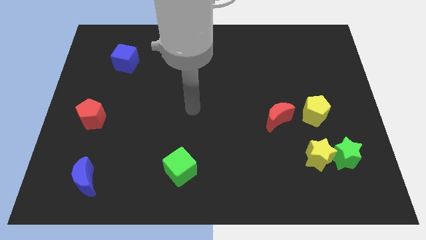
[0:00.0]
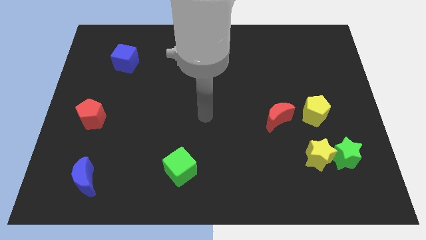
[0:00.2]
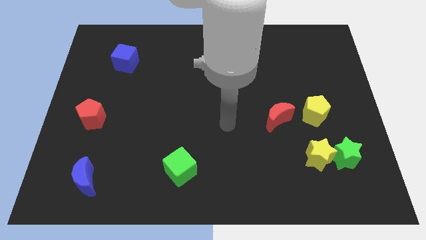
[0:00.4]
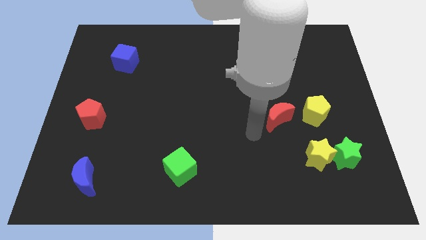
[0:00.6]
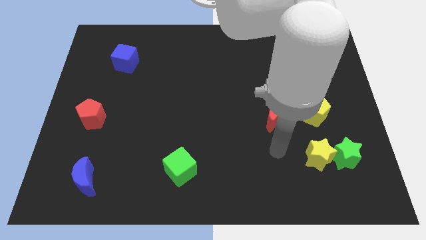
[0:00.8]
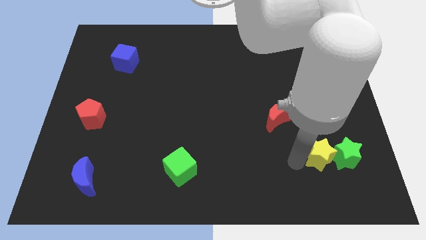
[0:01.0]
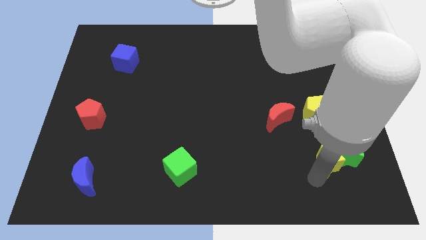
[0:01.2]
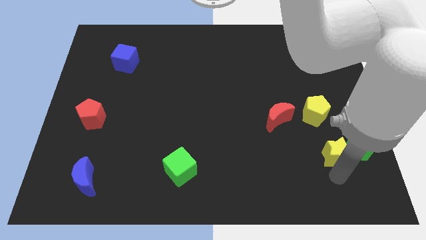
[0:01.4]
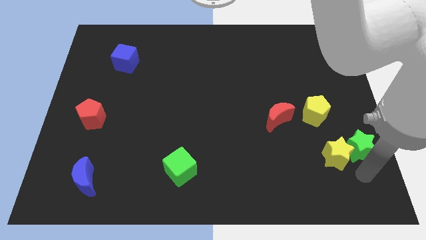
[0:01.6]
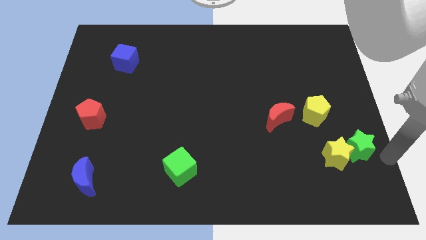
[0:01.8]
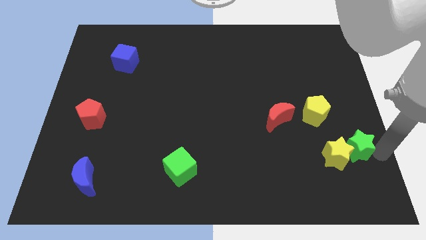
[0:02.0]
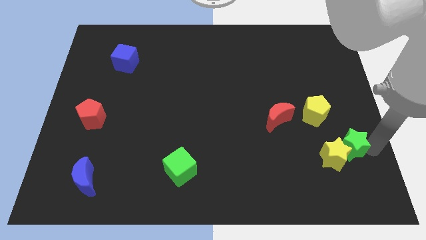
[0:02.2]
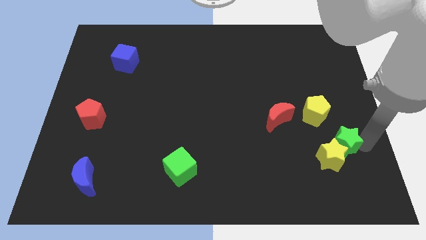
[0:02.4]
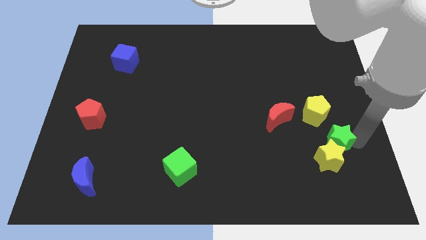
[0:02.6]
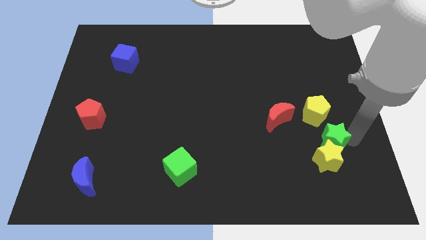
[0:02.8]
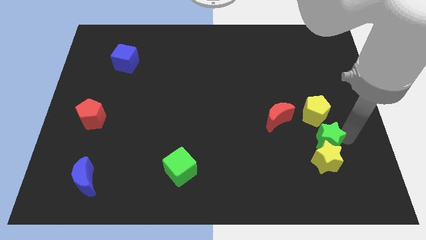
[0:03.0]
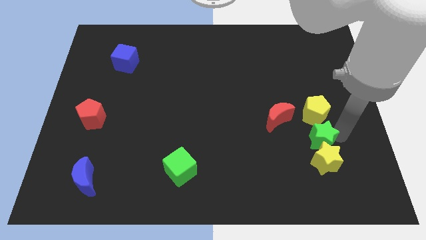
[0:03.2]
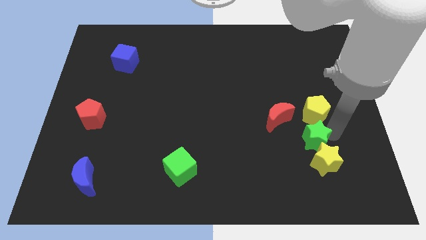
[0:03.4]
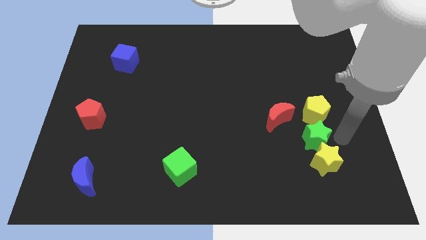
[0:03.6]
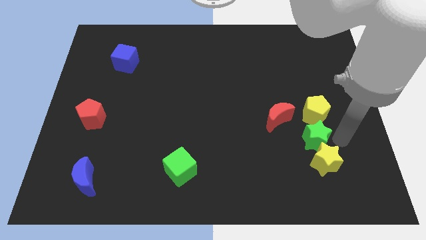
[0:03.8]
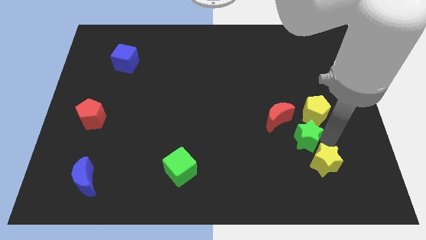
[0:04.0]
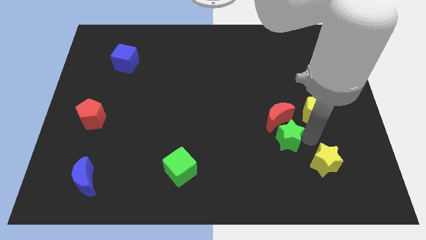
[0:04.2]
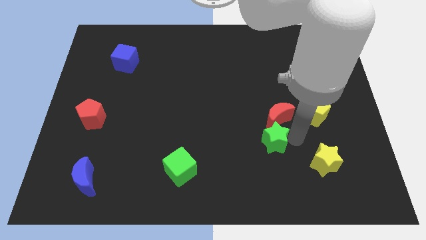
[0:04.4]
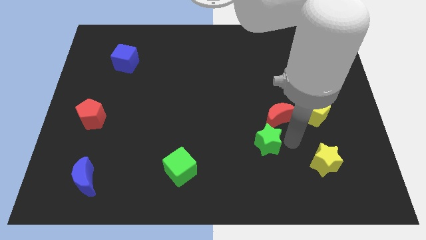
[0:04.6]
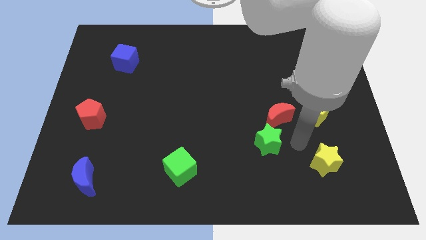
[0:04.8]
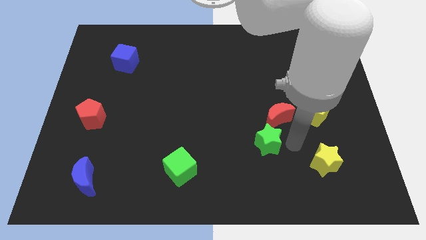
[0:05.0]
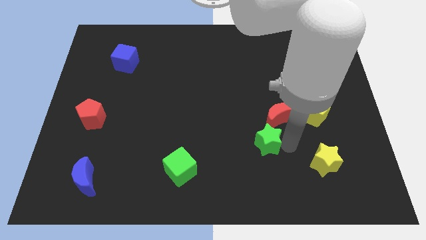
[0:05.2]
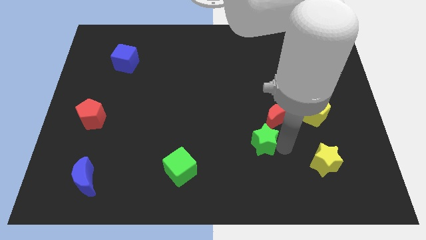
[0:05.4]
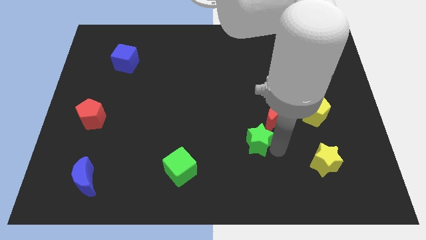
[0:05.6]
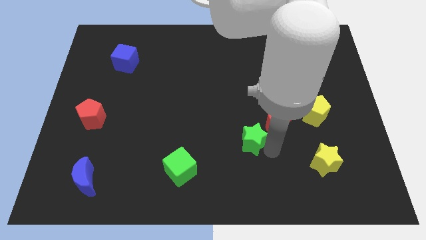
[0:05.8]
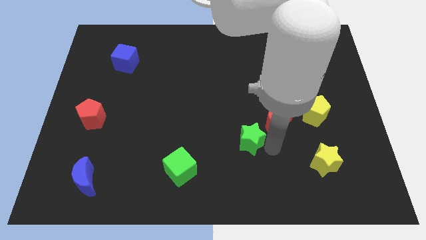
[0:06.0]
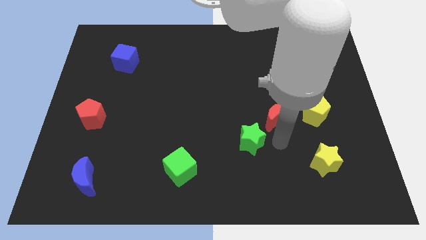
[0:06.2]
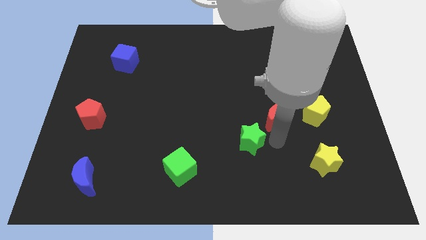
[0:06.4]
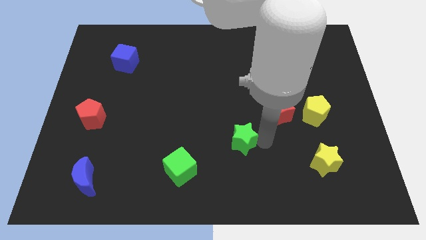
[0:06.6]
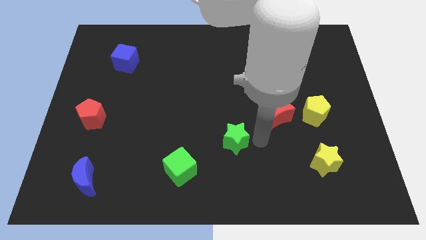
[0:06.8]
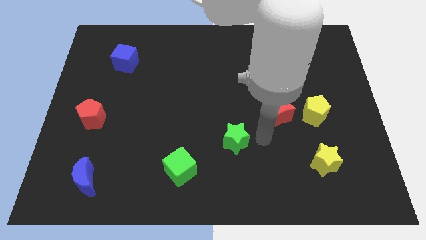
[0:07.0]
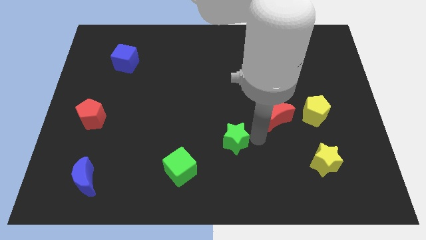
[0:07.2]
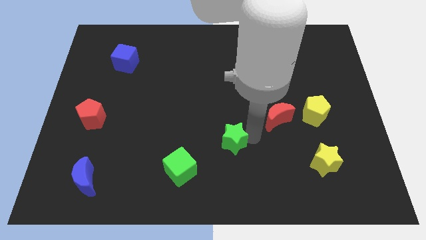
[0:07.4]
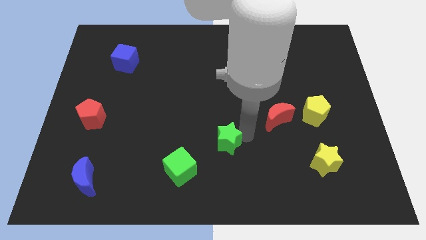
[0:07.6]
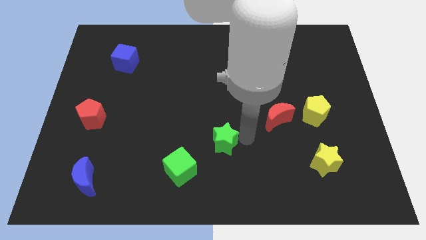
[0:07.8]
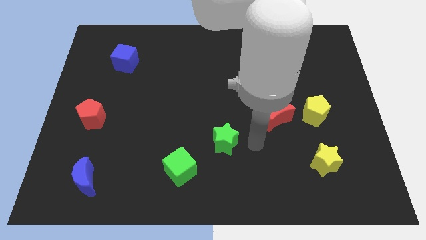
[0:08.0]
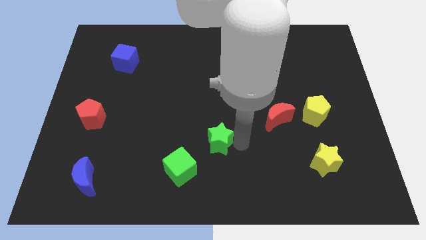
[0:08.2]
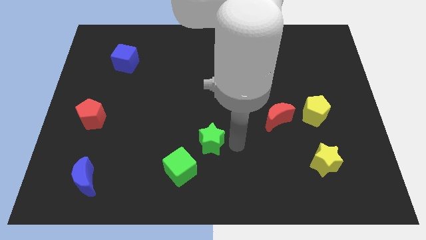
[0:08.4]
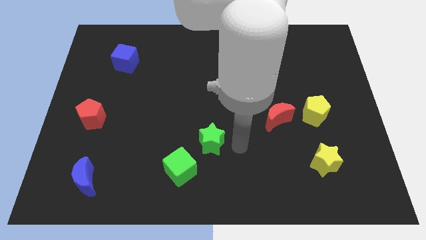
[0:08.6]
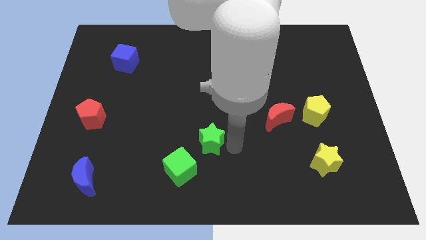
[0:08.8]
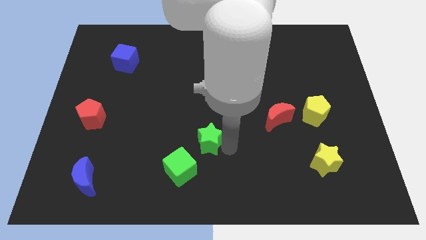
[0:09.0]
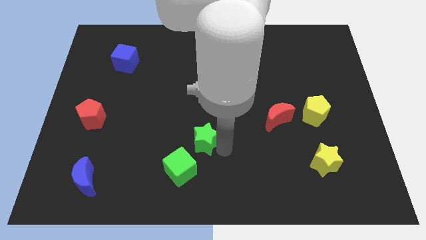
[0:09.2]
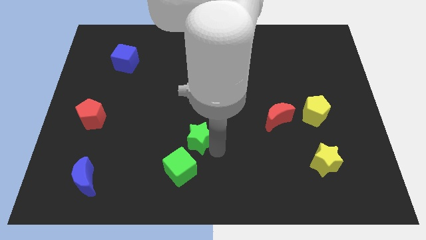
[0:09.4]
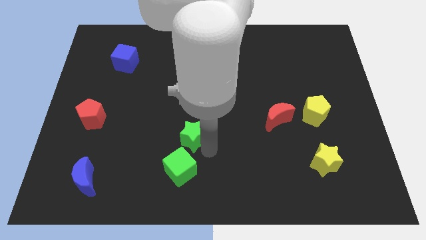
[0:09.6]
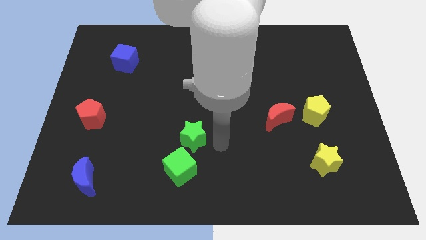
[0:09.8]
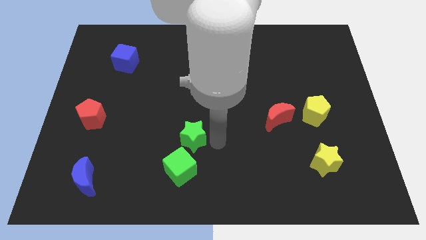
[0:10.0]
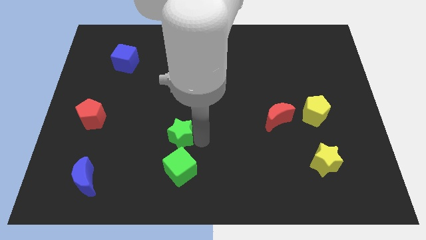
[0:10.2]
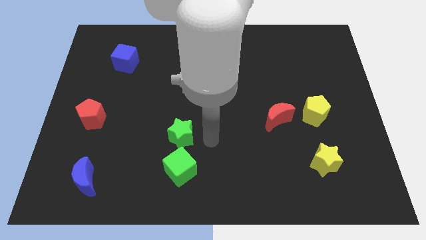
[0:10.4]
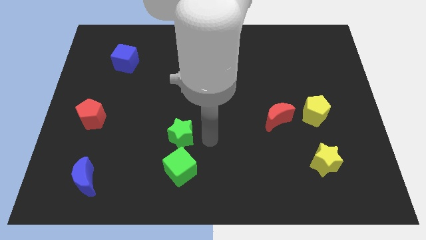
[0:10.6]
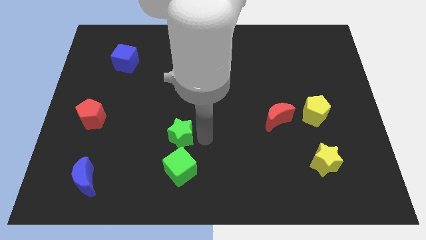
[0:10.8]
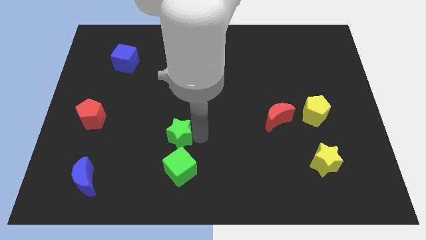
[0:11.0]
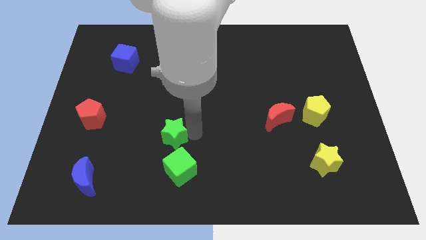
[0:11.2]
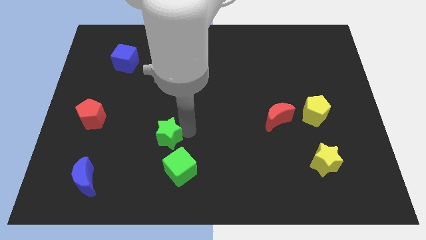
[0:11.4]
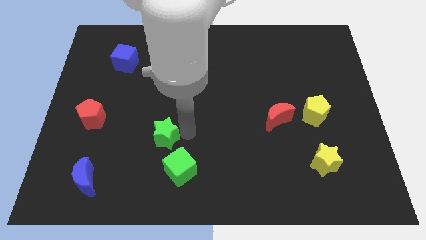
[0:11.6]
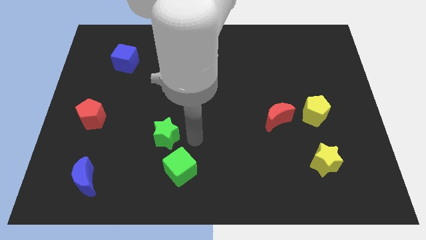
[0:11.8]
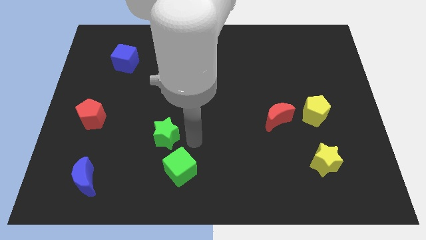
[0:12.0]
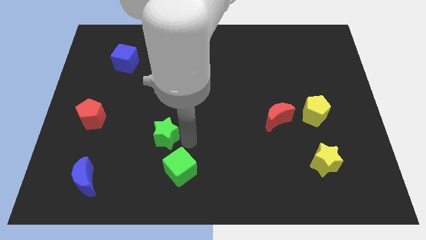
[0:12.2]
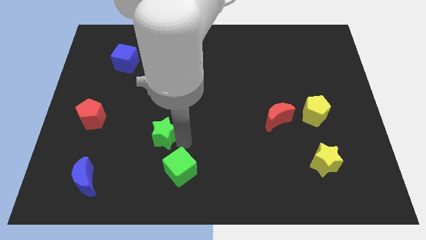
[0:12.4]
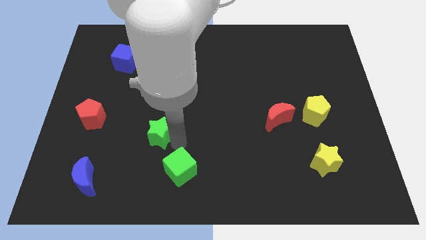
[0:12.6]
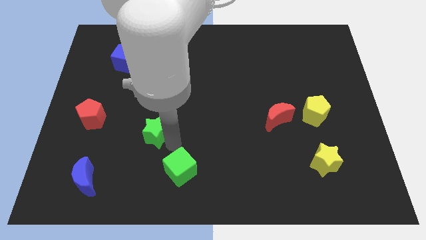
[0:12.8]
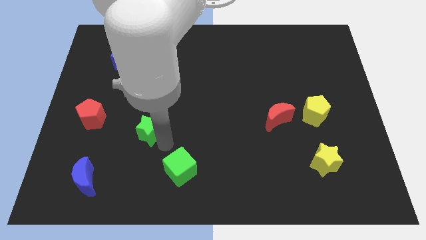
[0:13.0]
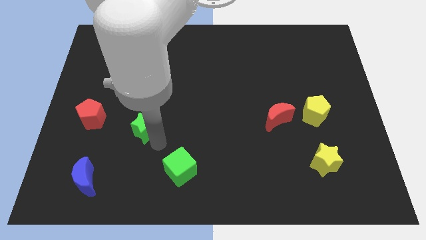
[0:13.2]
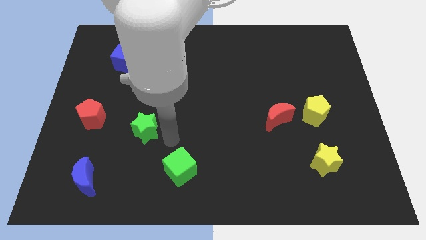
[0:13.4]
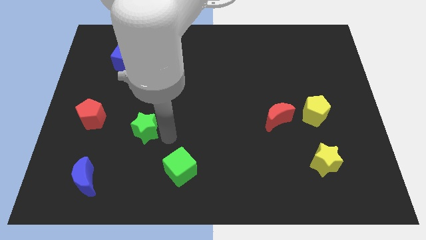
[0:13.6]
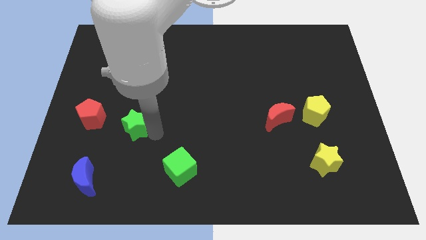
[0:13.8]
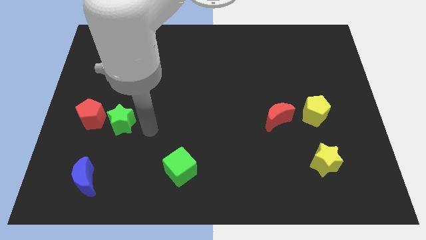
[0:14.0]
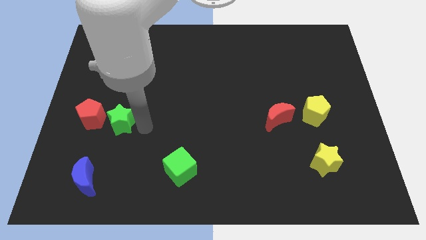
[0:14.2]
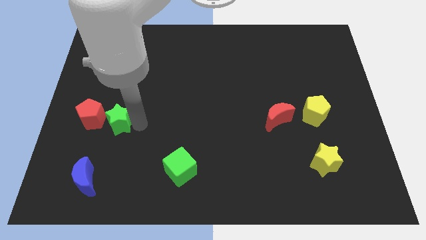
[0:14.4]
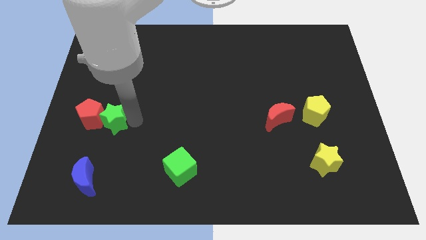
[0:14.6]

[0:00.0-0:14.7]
move the green star close to the red pentagon
